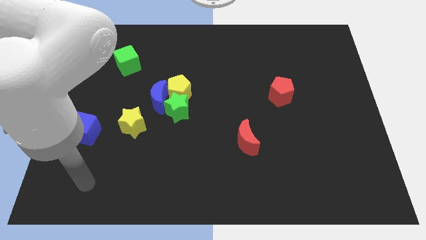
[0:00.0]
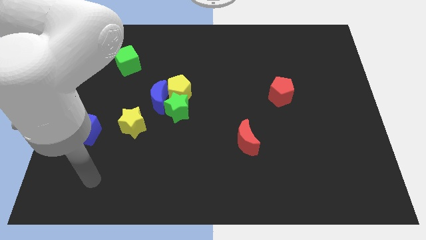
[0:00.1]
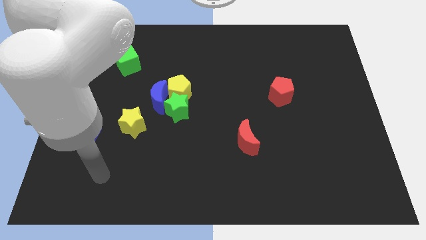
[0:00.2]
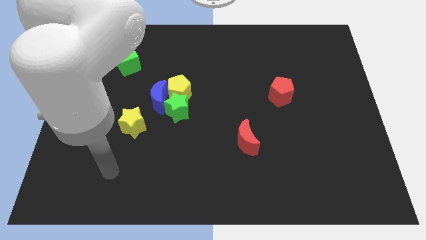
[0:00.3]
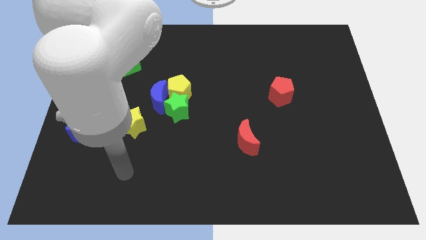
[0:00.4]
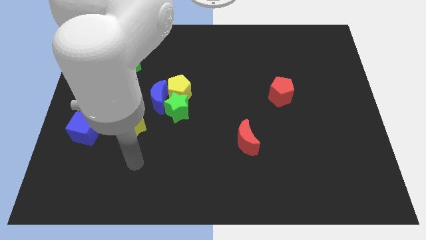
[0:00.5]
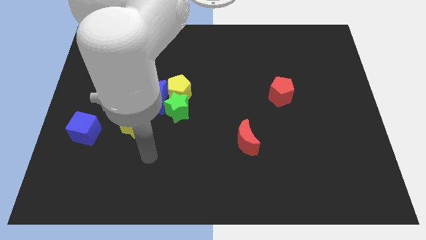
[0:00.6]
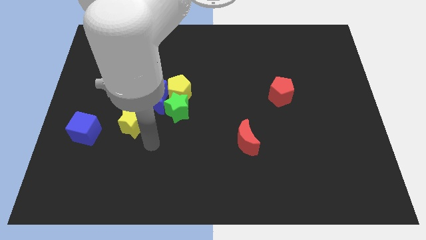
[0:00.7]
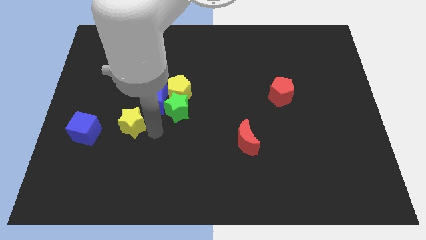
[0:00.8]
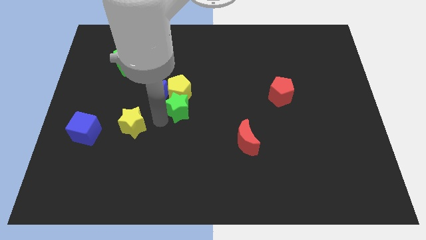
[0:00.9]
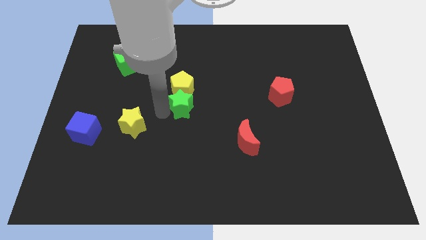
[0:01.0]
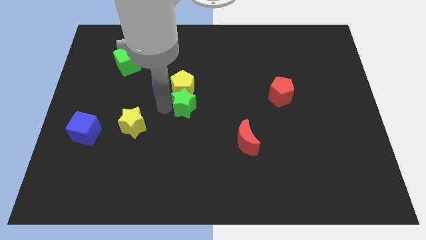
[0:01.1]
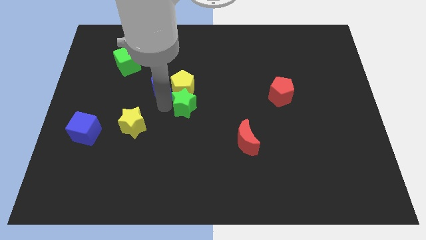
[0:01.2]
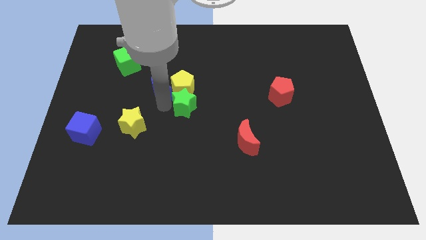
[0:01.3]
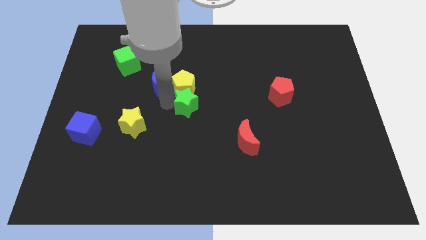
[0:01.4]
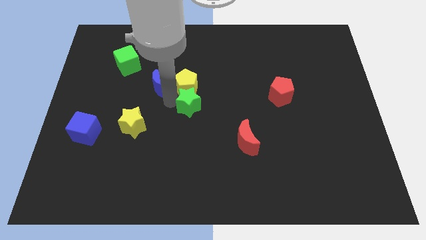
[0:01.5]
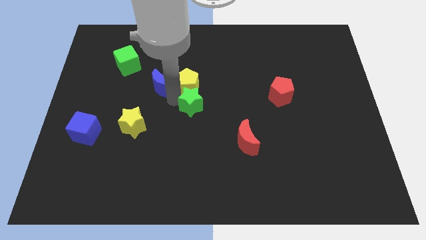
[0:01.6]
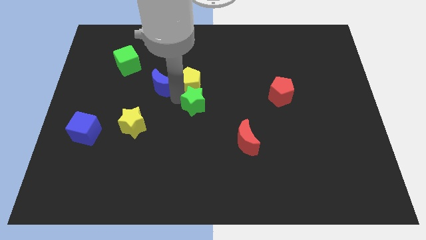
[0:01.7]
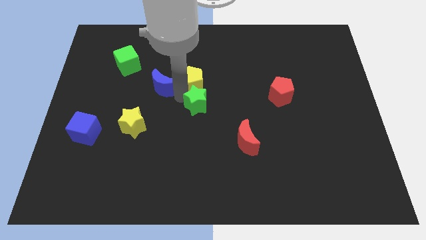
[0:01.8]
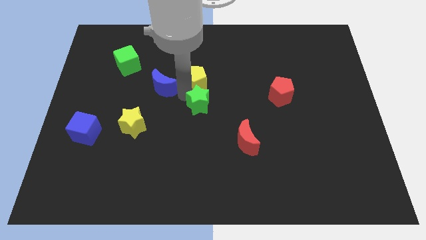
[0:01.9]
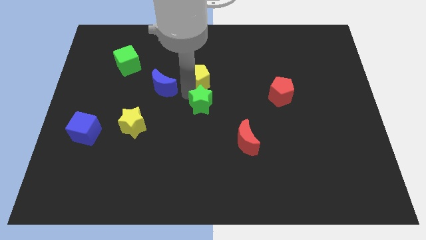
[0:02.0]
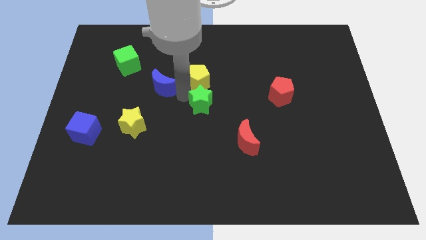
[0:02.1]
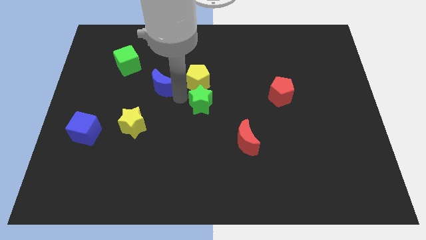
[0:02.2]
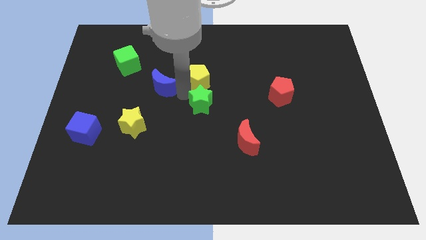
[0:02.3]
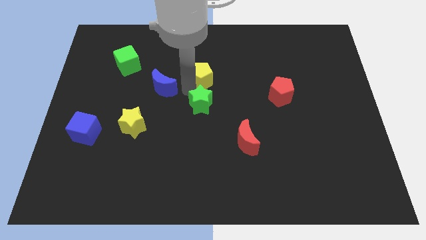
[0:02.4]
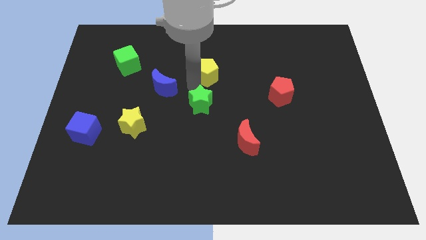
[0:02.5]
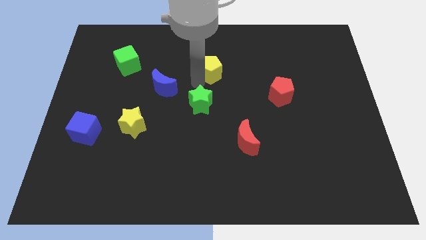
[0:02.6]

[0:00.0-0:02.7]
separate the yellow pentagon from the blue moon and green star

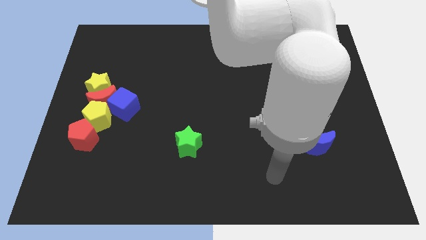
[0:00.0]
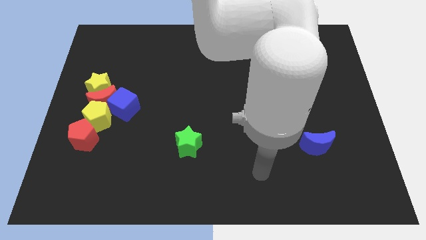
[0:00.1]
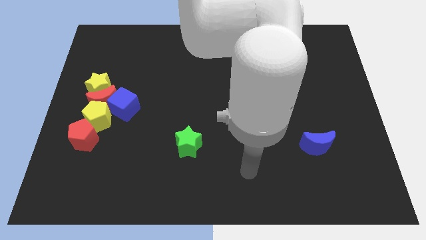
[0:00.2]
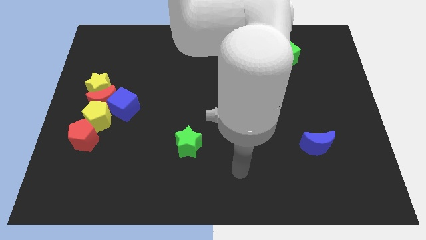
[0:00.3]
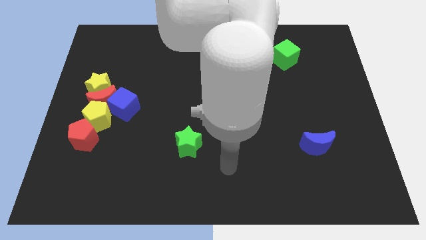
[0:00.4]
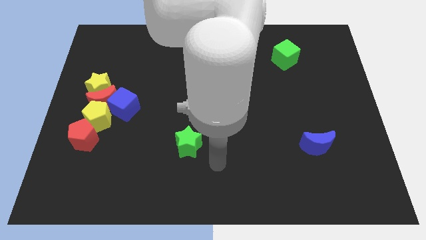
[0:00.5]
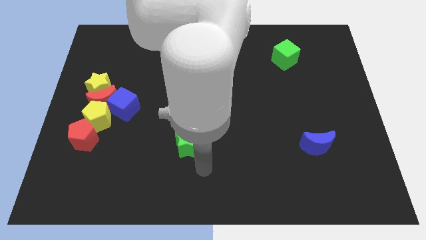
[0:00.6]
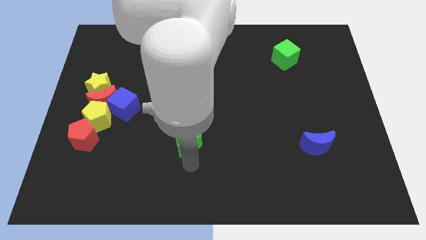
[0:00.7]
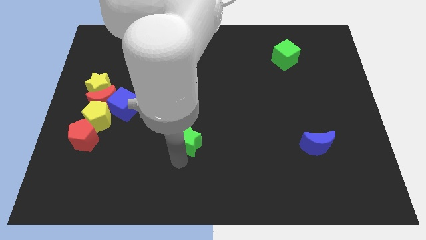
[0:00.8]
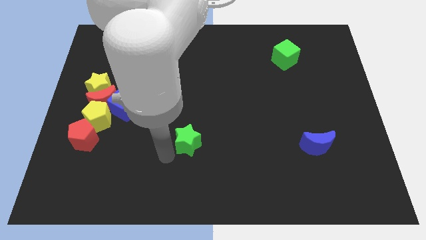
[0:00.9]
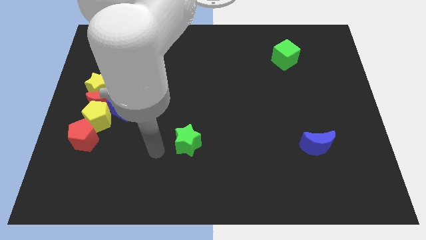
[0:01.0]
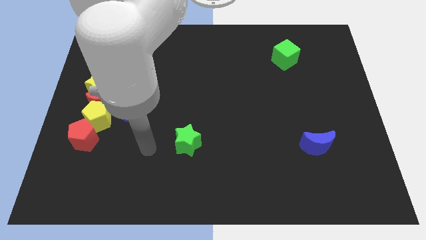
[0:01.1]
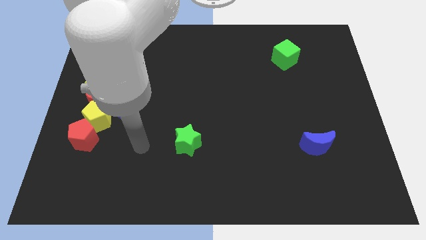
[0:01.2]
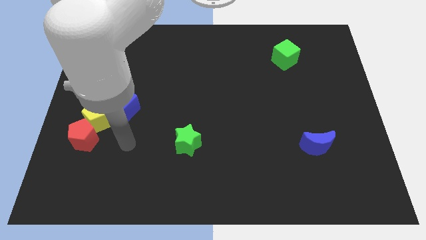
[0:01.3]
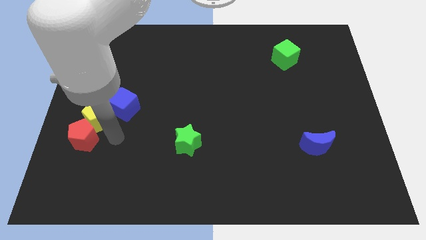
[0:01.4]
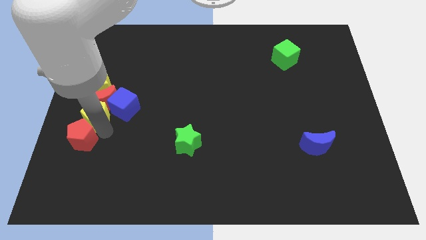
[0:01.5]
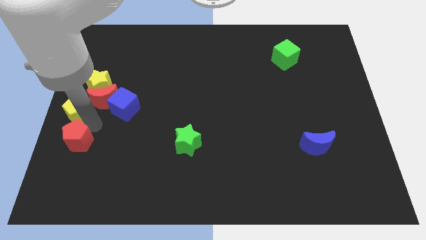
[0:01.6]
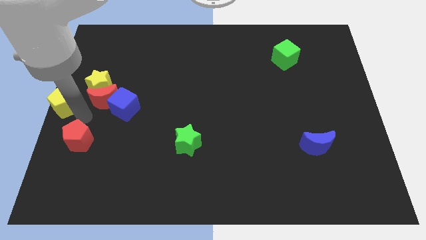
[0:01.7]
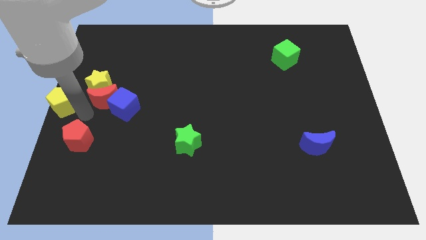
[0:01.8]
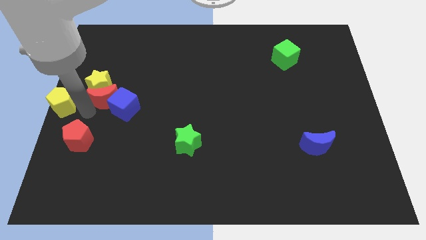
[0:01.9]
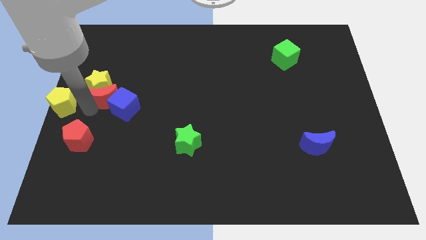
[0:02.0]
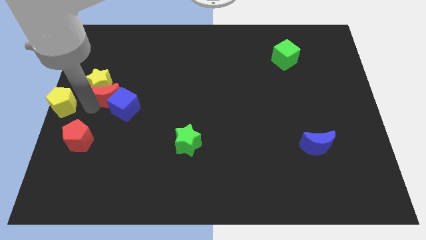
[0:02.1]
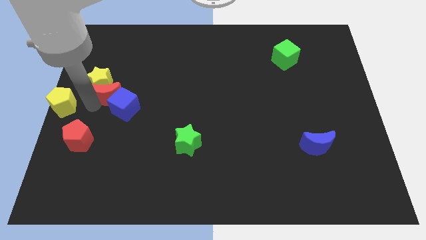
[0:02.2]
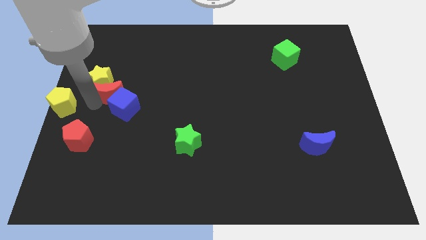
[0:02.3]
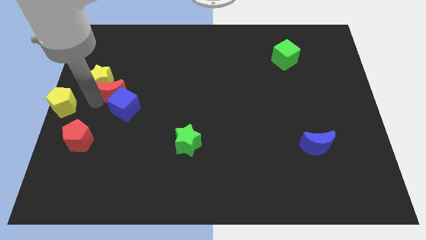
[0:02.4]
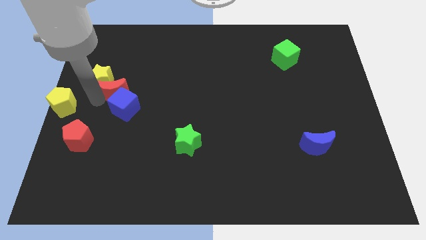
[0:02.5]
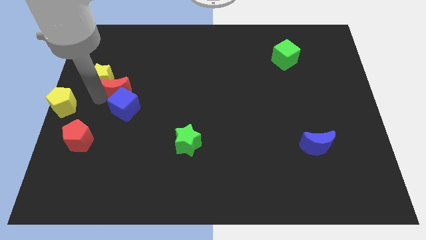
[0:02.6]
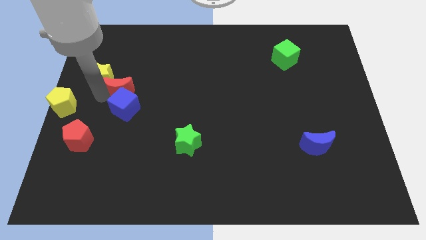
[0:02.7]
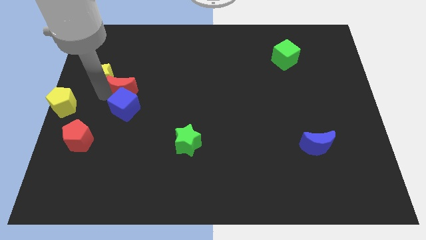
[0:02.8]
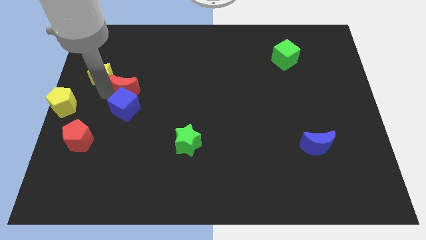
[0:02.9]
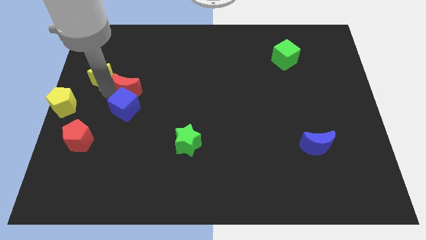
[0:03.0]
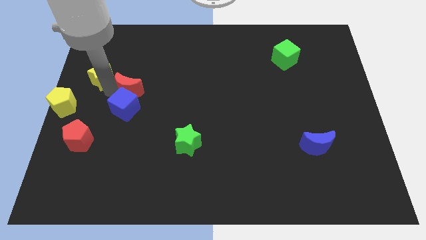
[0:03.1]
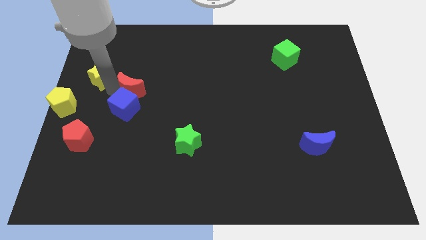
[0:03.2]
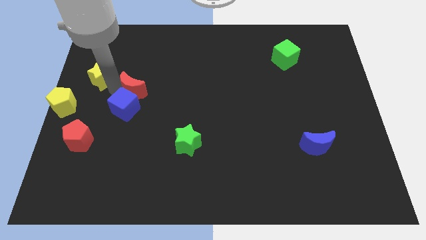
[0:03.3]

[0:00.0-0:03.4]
separate the red moon from the clump

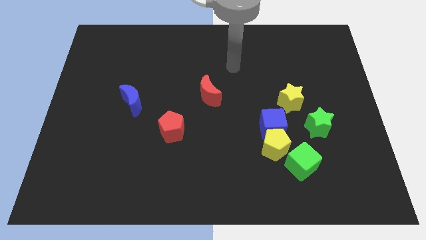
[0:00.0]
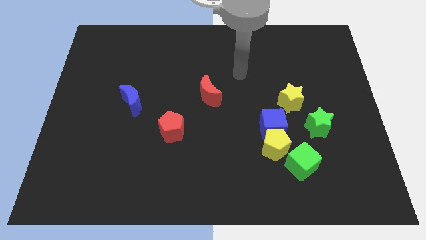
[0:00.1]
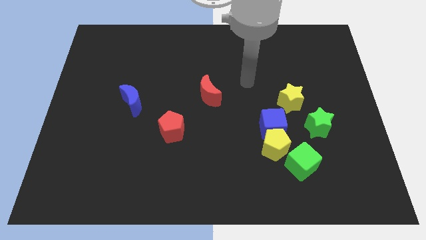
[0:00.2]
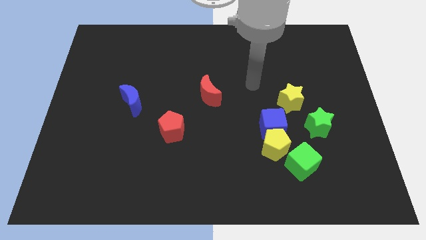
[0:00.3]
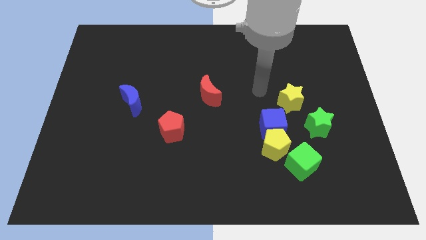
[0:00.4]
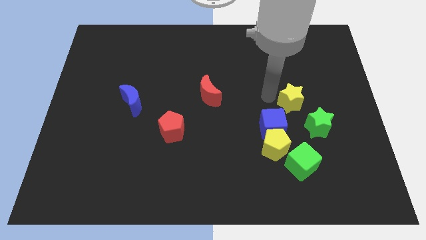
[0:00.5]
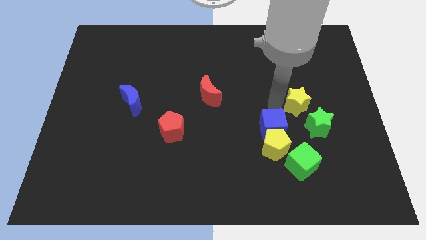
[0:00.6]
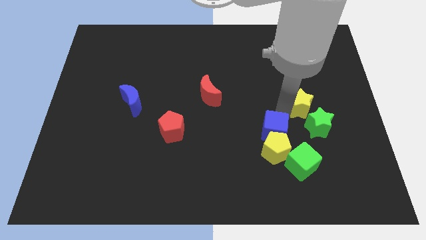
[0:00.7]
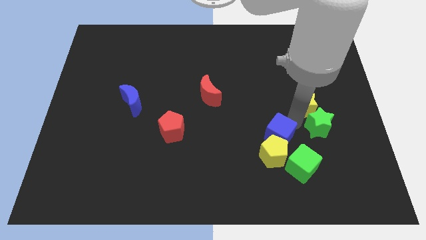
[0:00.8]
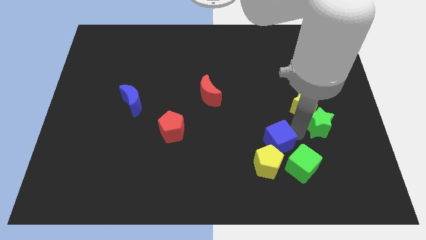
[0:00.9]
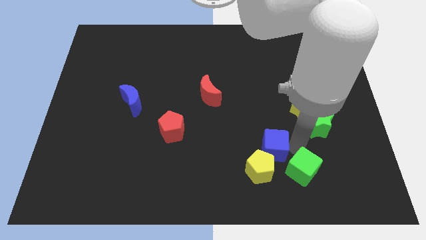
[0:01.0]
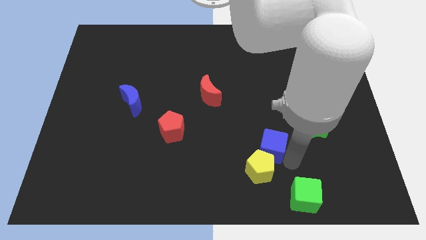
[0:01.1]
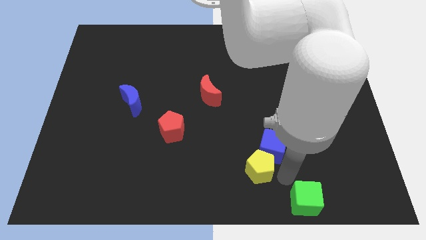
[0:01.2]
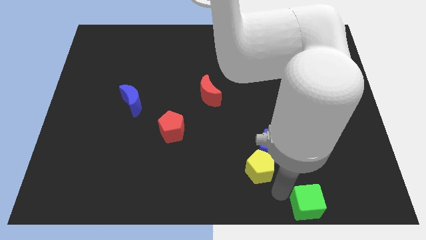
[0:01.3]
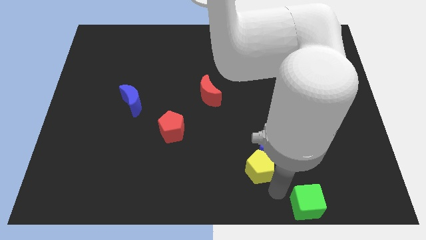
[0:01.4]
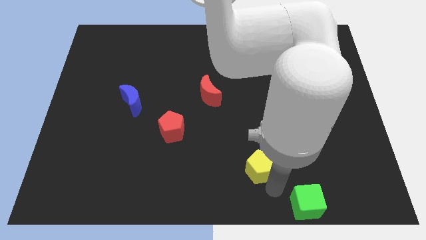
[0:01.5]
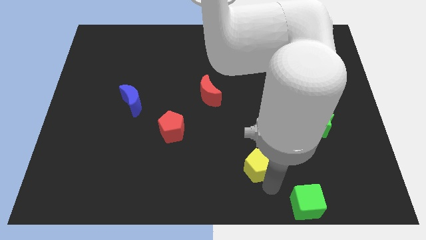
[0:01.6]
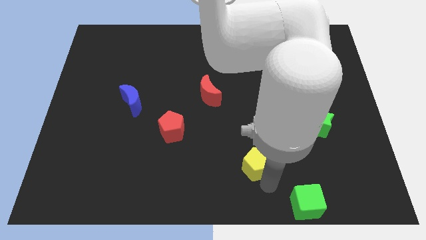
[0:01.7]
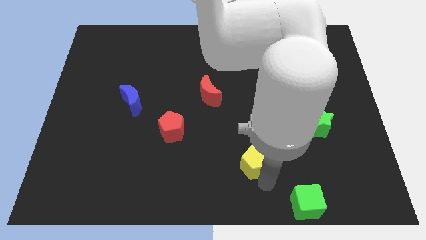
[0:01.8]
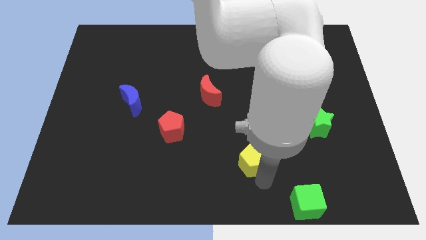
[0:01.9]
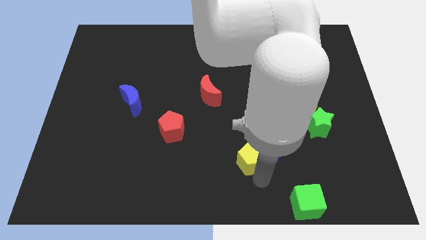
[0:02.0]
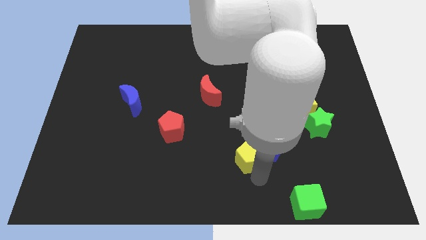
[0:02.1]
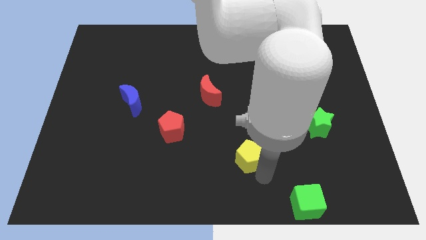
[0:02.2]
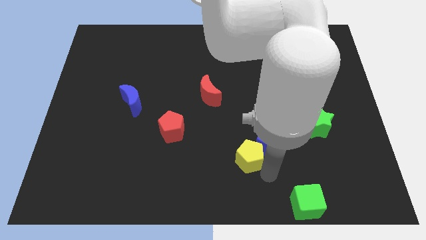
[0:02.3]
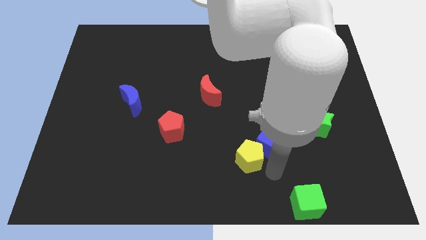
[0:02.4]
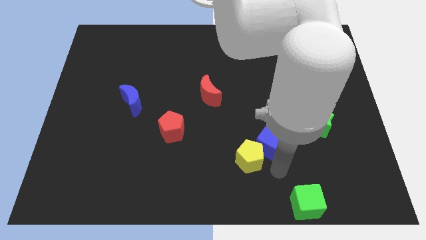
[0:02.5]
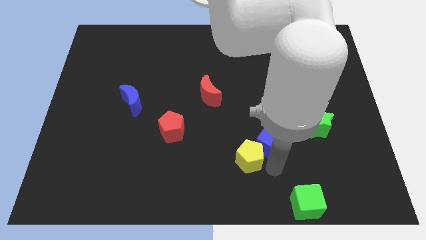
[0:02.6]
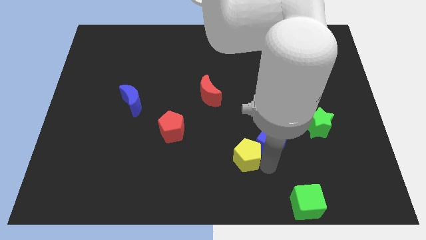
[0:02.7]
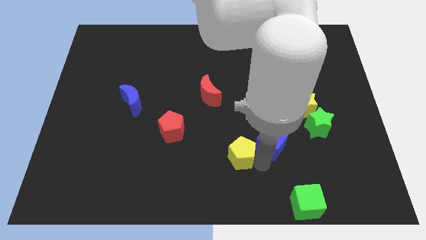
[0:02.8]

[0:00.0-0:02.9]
separate the yellow pentagon from the blue cube and green cube

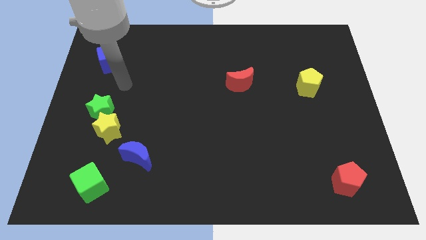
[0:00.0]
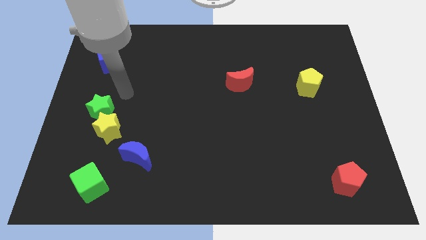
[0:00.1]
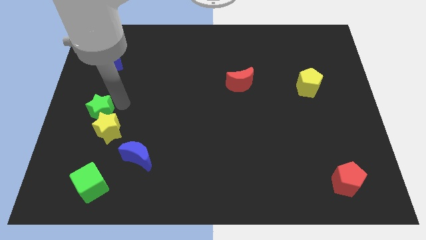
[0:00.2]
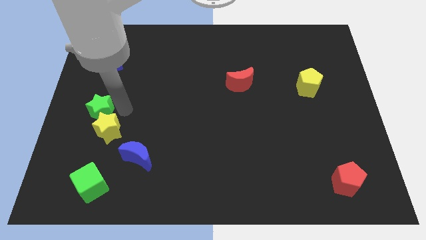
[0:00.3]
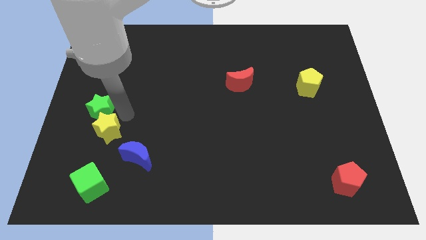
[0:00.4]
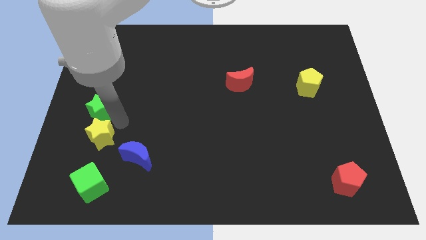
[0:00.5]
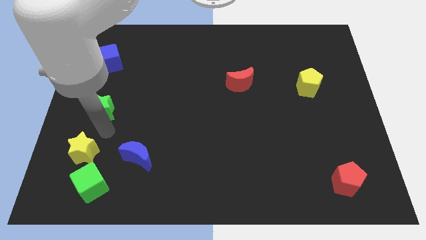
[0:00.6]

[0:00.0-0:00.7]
pull the green star apart from the yellow star
